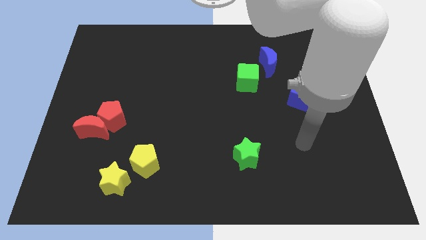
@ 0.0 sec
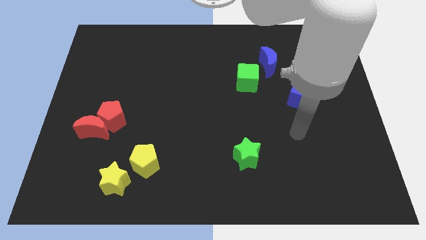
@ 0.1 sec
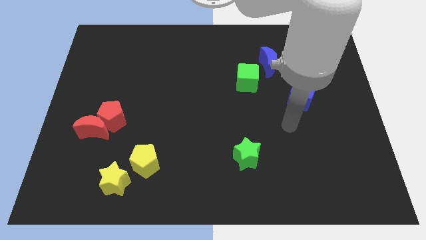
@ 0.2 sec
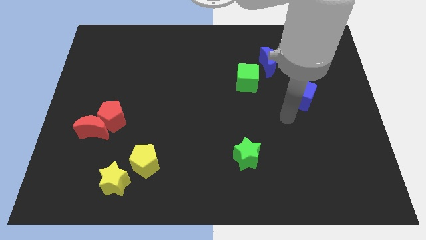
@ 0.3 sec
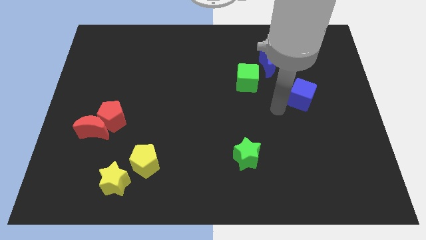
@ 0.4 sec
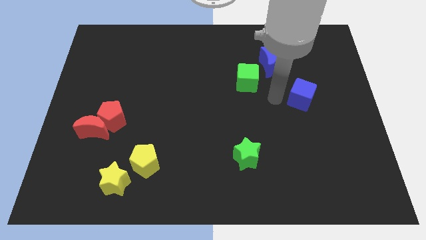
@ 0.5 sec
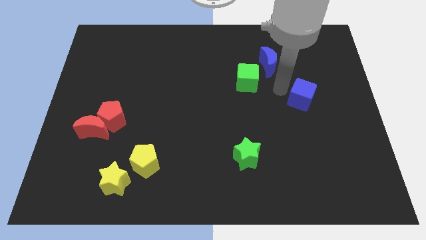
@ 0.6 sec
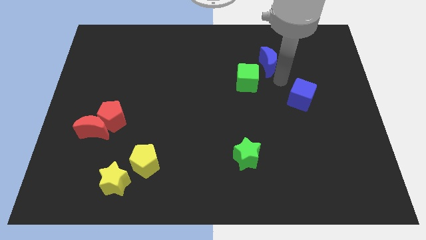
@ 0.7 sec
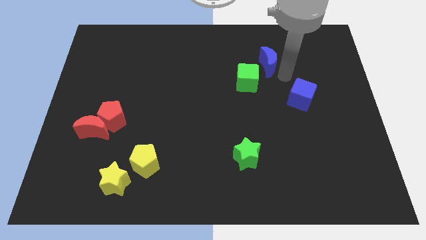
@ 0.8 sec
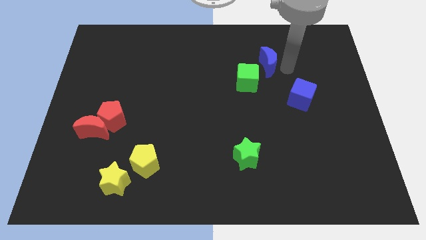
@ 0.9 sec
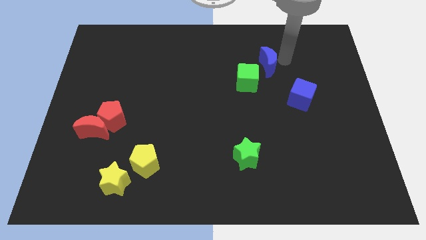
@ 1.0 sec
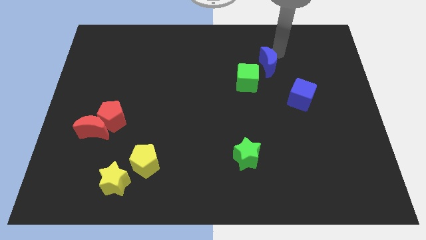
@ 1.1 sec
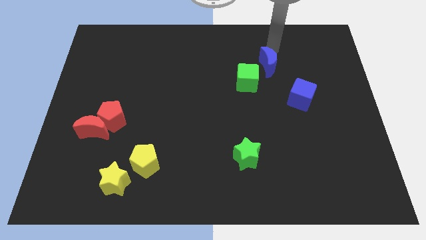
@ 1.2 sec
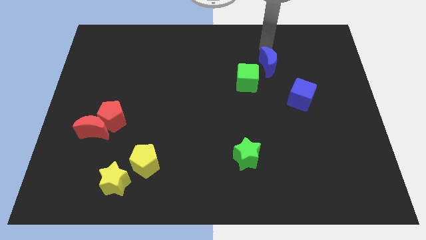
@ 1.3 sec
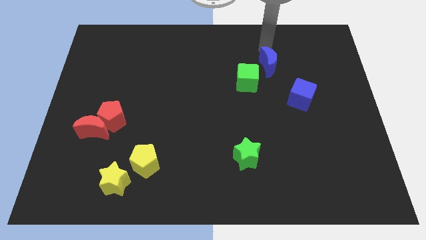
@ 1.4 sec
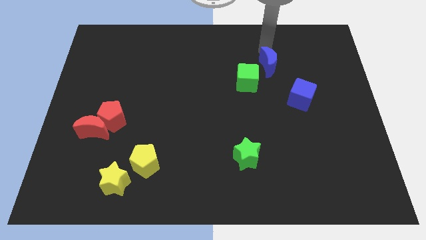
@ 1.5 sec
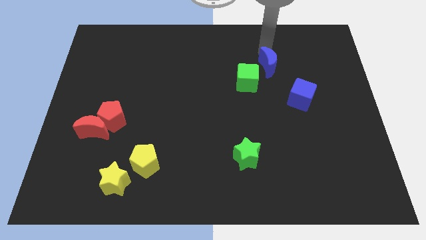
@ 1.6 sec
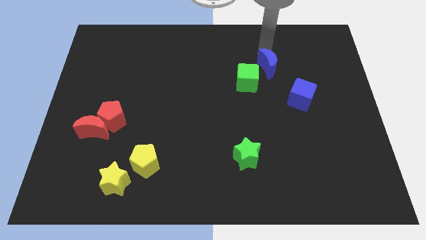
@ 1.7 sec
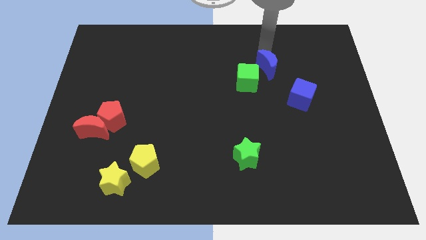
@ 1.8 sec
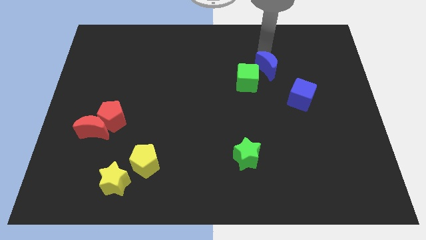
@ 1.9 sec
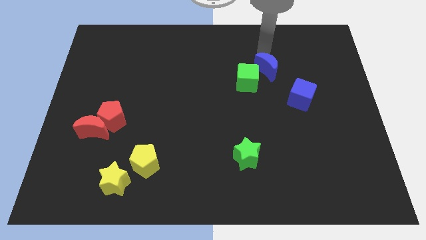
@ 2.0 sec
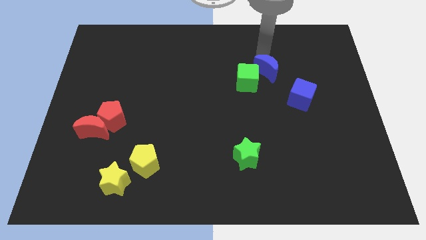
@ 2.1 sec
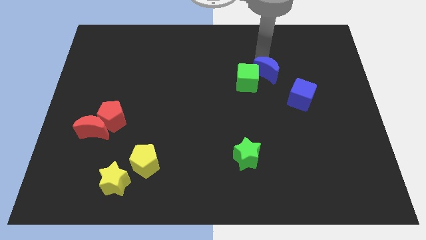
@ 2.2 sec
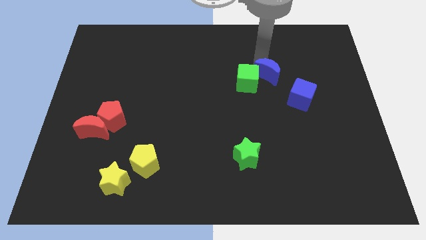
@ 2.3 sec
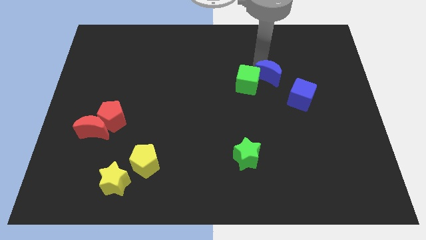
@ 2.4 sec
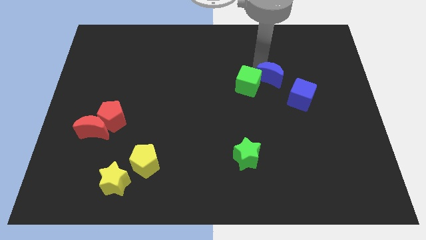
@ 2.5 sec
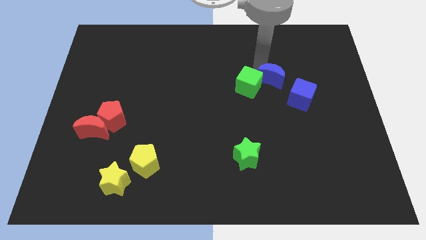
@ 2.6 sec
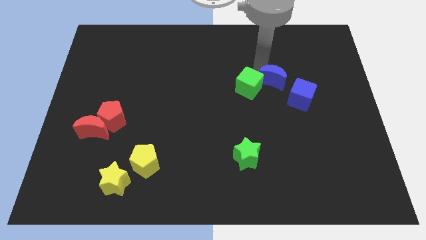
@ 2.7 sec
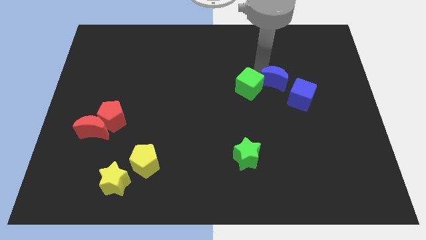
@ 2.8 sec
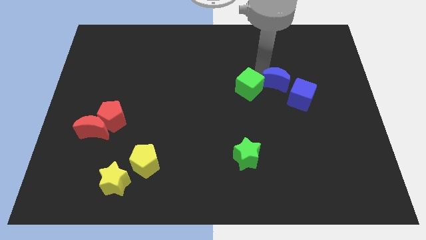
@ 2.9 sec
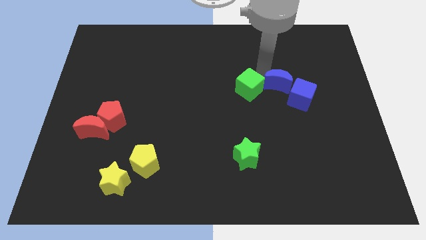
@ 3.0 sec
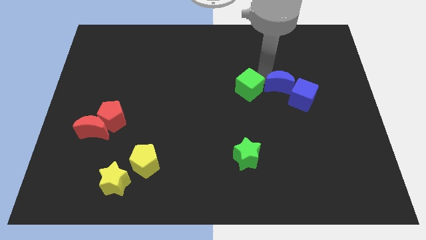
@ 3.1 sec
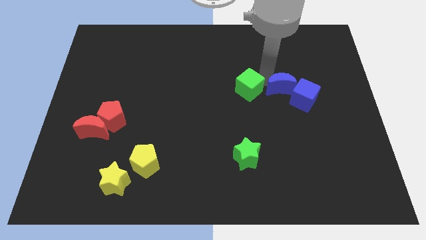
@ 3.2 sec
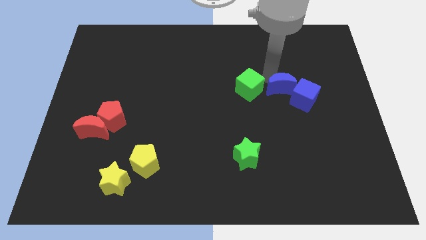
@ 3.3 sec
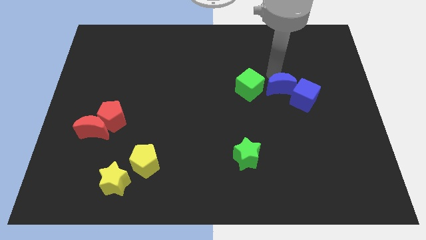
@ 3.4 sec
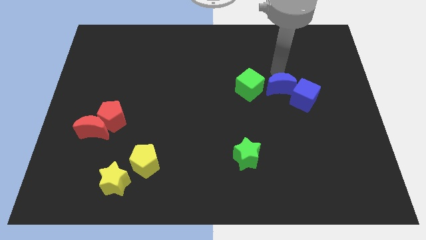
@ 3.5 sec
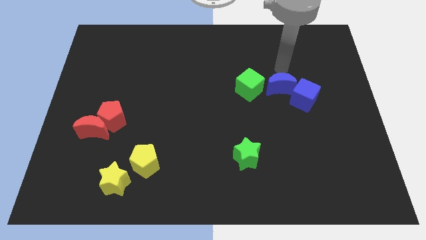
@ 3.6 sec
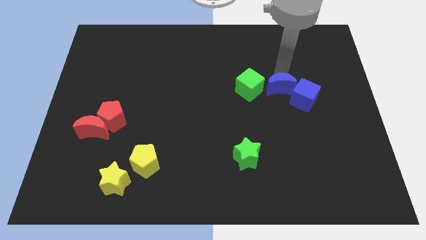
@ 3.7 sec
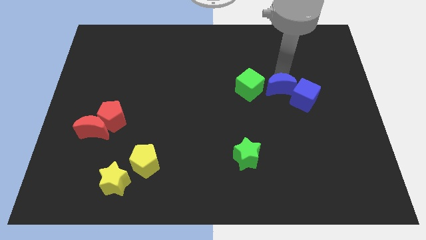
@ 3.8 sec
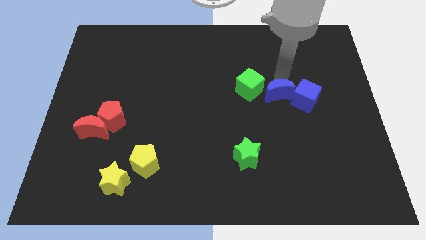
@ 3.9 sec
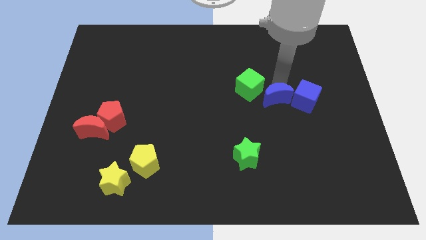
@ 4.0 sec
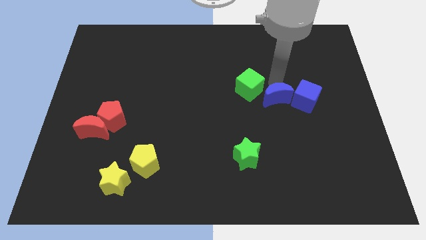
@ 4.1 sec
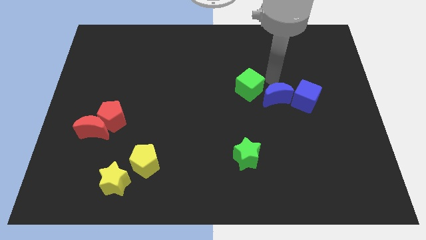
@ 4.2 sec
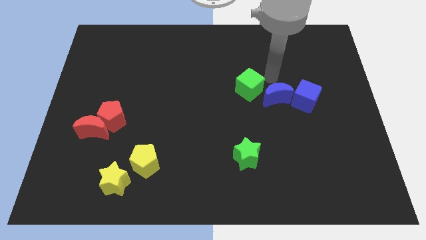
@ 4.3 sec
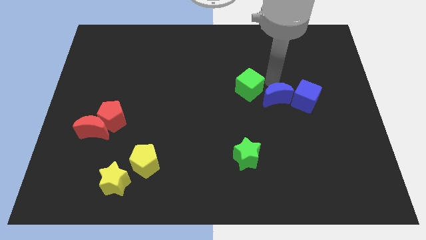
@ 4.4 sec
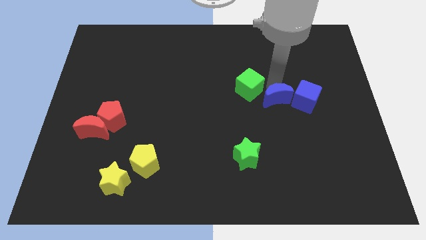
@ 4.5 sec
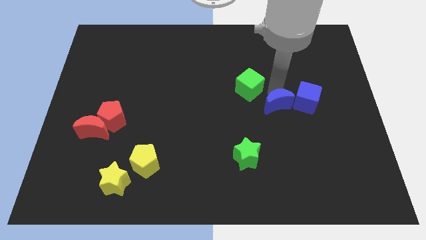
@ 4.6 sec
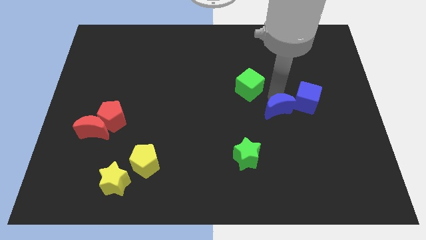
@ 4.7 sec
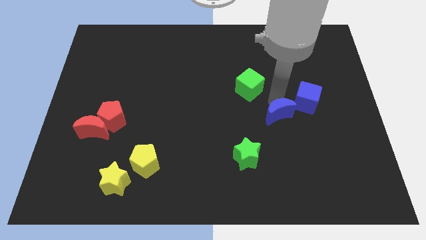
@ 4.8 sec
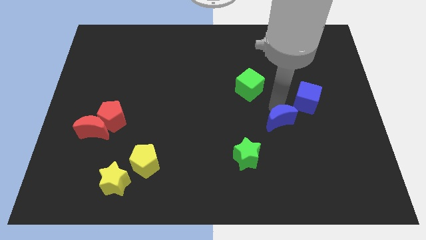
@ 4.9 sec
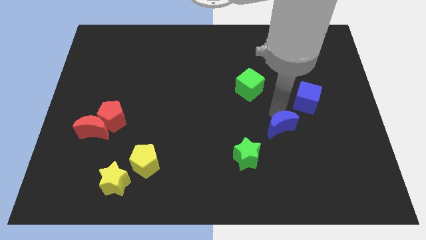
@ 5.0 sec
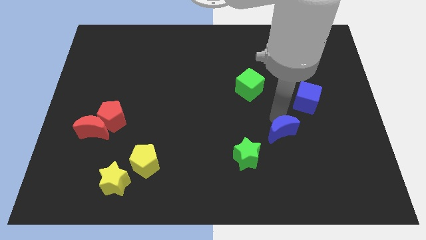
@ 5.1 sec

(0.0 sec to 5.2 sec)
move the blue moon down

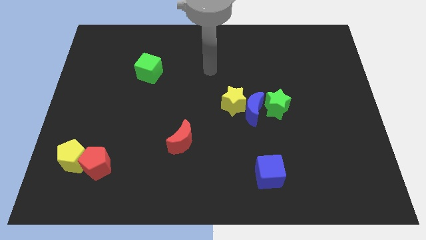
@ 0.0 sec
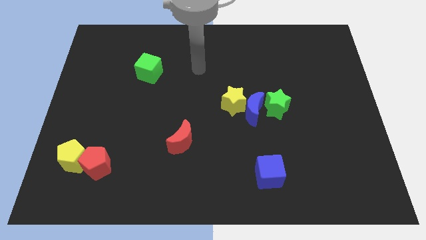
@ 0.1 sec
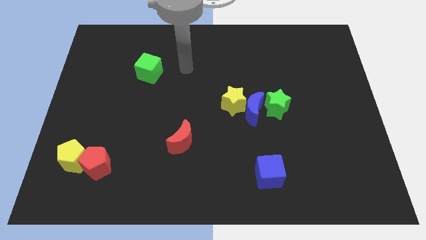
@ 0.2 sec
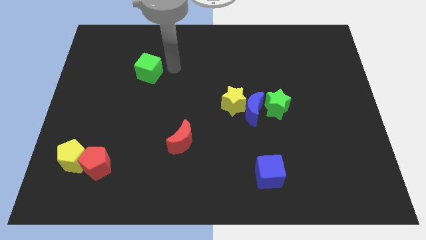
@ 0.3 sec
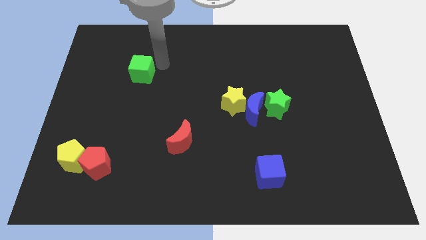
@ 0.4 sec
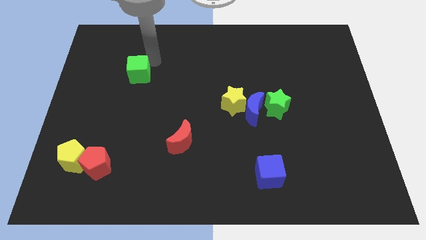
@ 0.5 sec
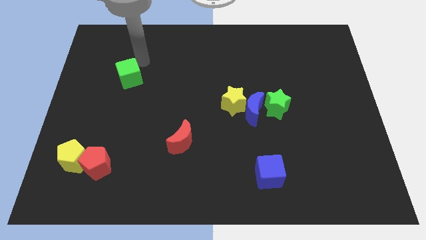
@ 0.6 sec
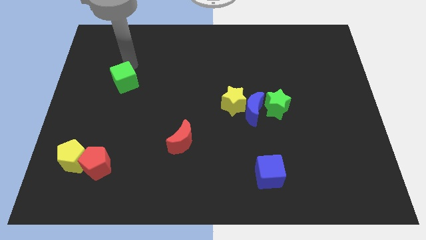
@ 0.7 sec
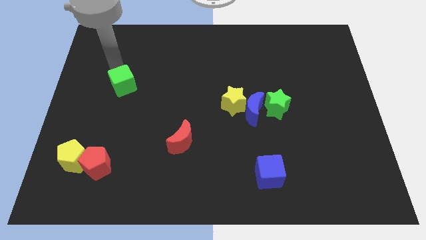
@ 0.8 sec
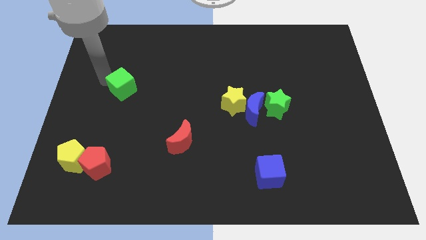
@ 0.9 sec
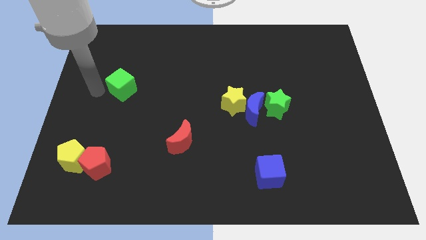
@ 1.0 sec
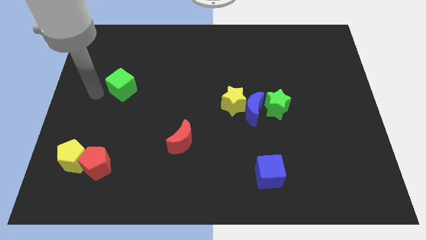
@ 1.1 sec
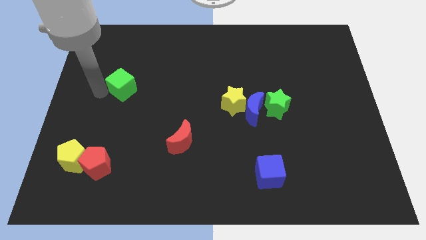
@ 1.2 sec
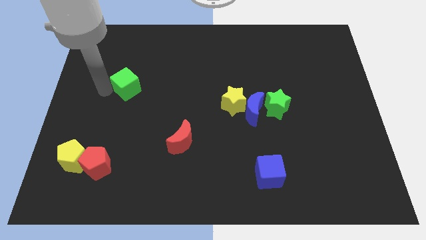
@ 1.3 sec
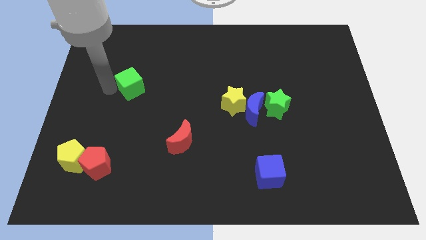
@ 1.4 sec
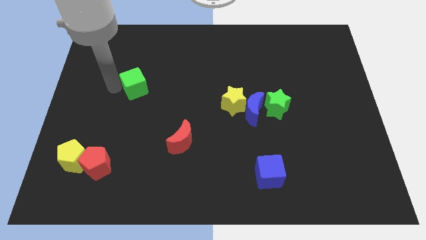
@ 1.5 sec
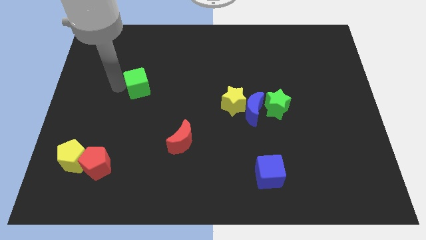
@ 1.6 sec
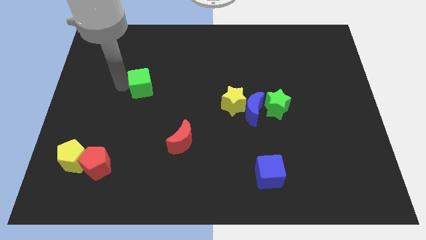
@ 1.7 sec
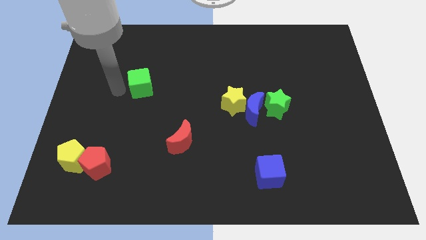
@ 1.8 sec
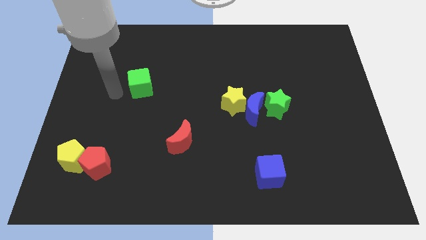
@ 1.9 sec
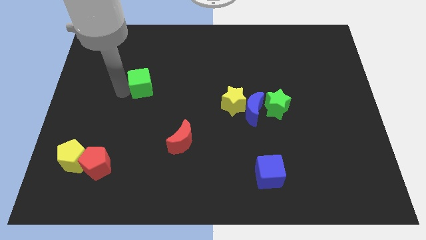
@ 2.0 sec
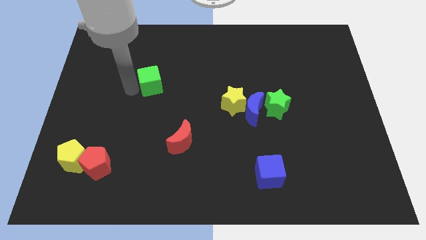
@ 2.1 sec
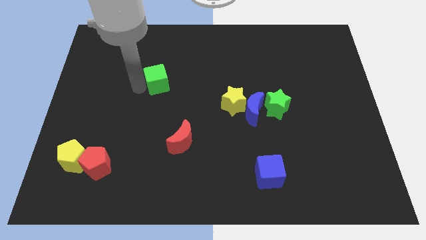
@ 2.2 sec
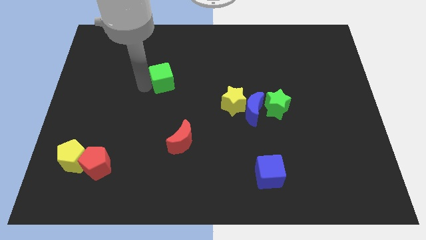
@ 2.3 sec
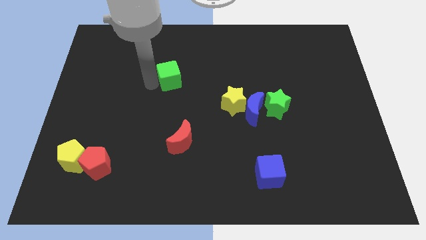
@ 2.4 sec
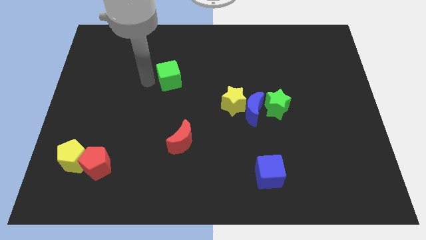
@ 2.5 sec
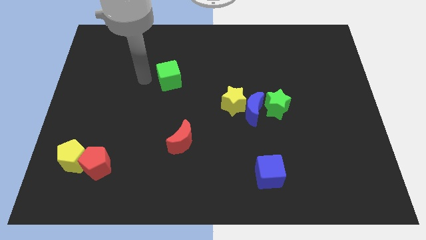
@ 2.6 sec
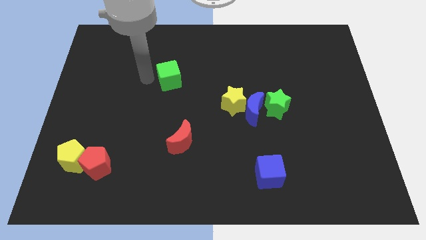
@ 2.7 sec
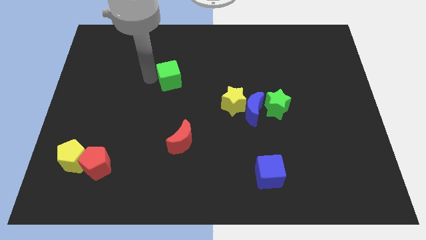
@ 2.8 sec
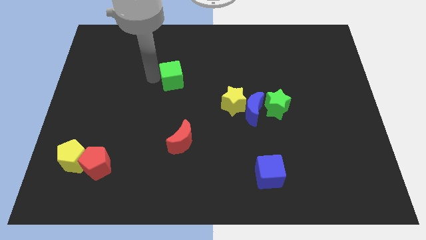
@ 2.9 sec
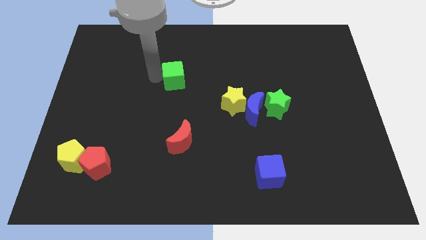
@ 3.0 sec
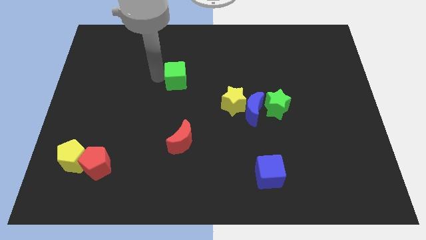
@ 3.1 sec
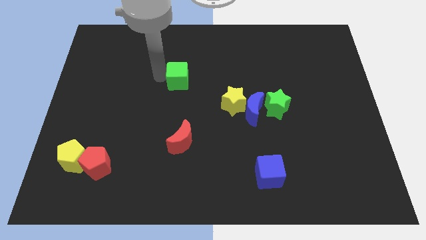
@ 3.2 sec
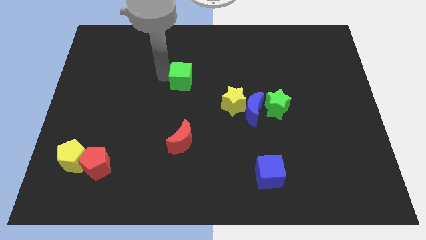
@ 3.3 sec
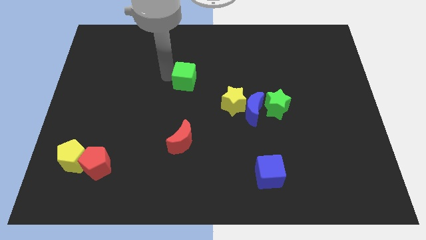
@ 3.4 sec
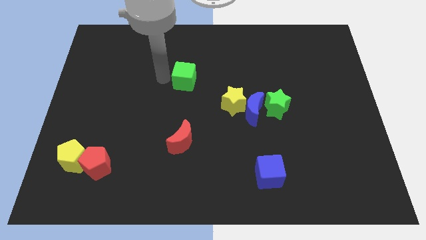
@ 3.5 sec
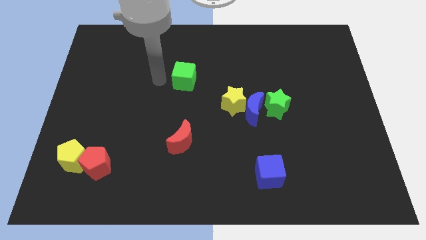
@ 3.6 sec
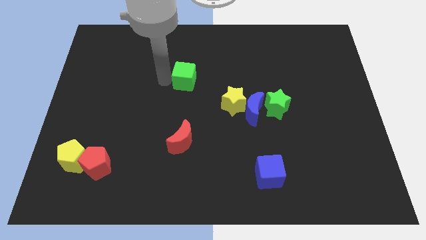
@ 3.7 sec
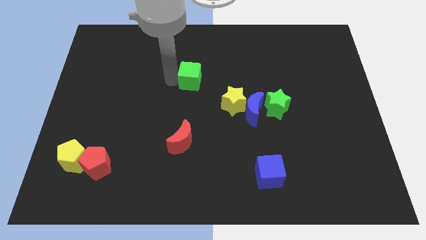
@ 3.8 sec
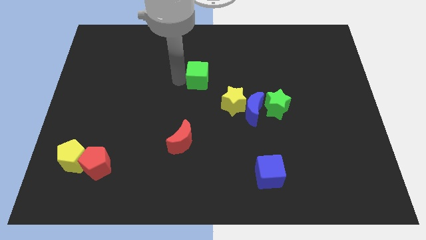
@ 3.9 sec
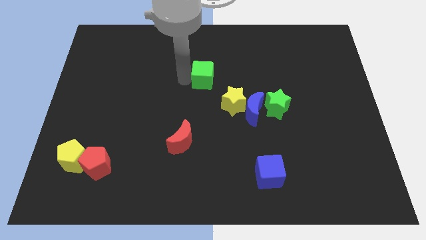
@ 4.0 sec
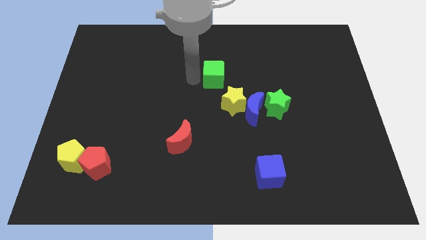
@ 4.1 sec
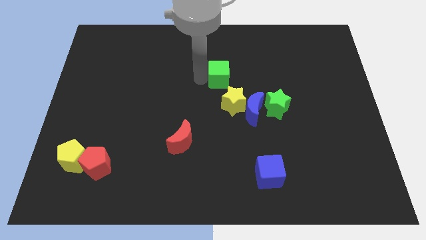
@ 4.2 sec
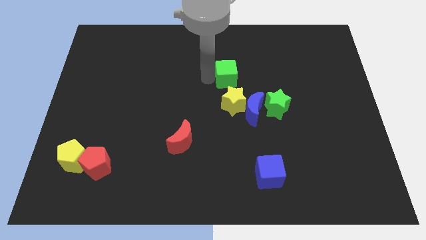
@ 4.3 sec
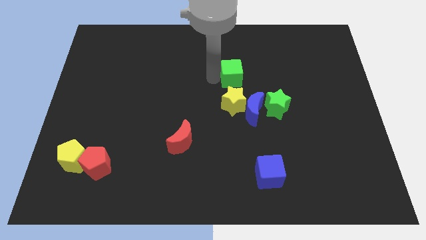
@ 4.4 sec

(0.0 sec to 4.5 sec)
move the green cube to the right
